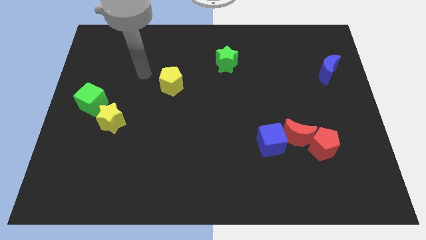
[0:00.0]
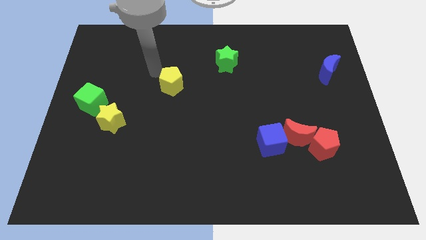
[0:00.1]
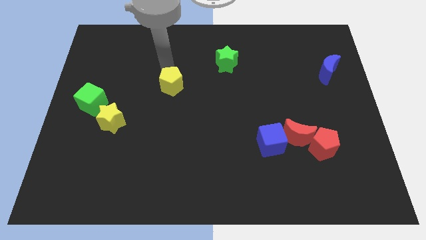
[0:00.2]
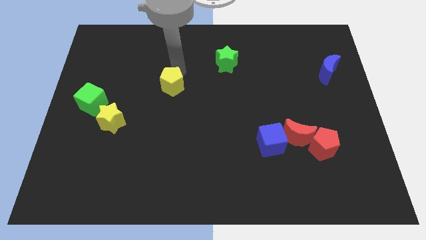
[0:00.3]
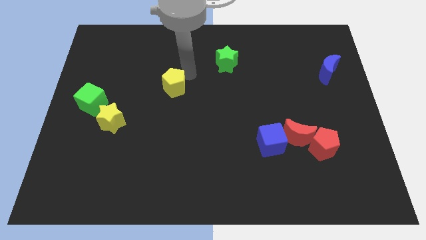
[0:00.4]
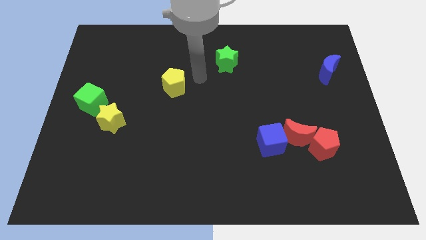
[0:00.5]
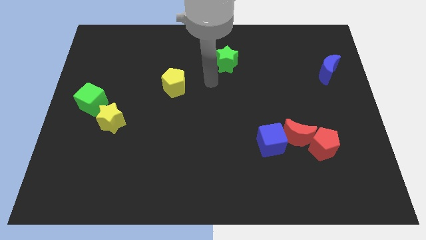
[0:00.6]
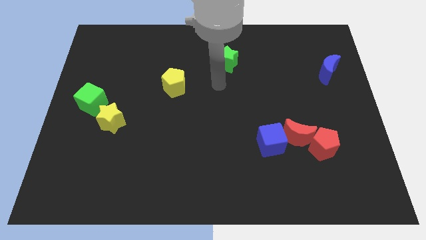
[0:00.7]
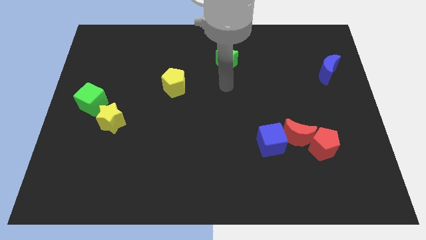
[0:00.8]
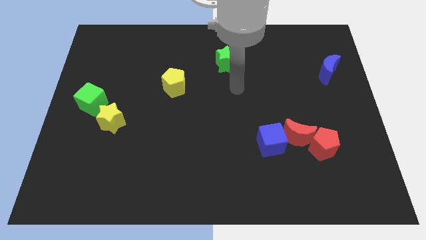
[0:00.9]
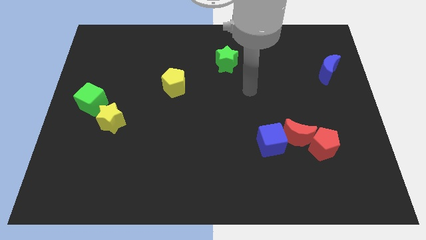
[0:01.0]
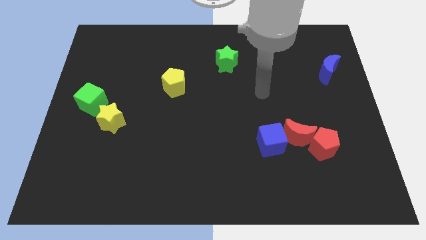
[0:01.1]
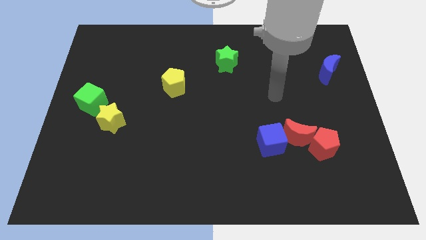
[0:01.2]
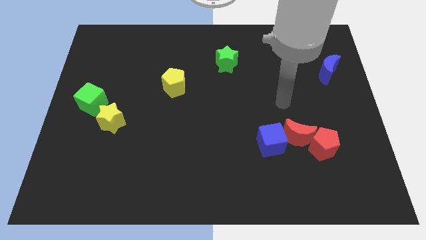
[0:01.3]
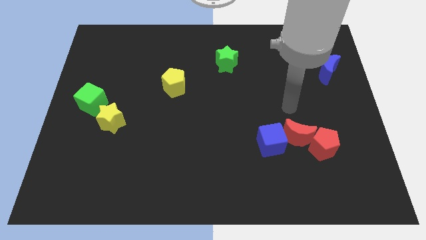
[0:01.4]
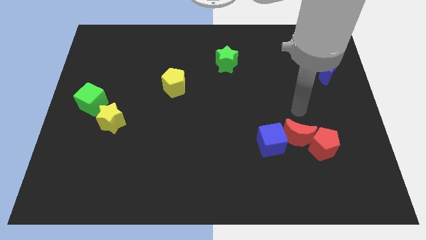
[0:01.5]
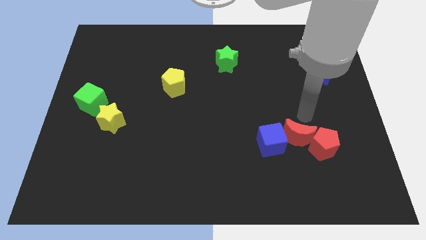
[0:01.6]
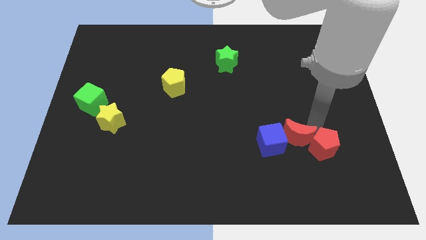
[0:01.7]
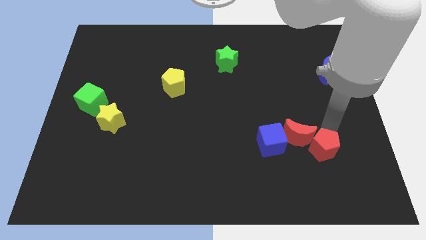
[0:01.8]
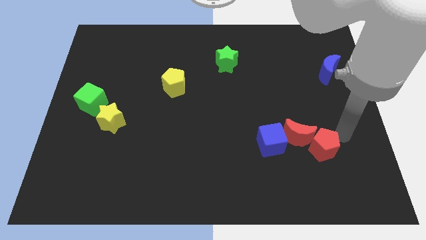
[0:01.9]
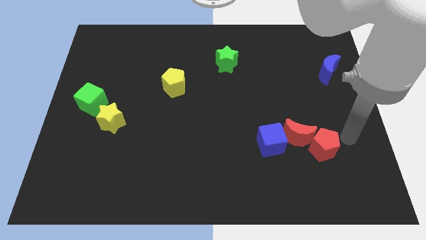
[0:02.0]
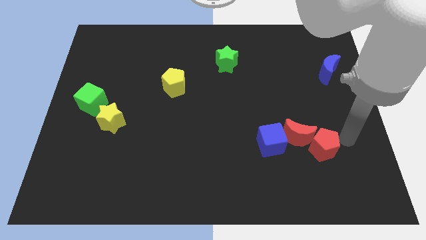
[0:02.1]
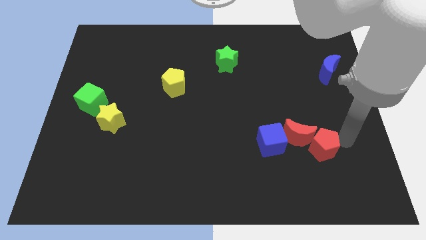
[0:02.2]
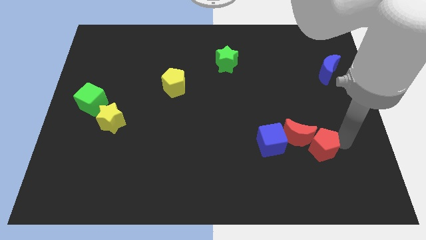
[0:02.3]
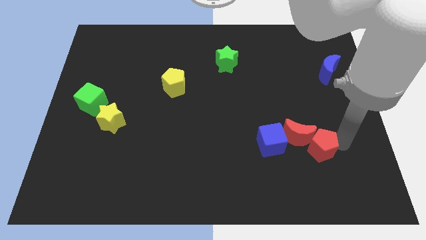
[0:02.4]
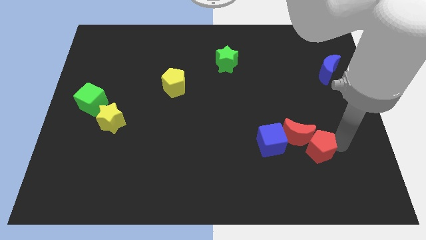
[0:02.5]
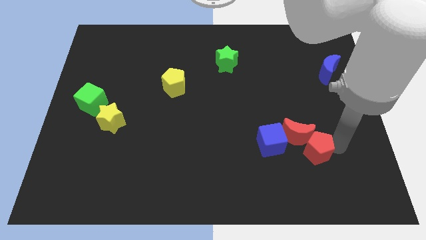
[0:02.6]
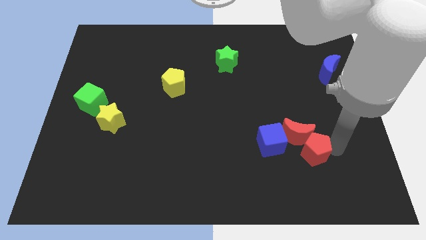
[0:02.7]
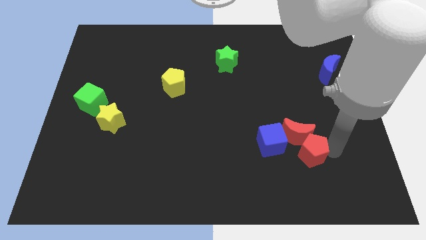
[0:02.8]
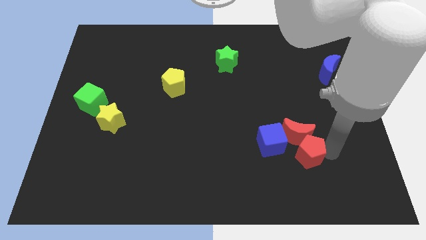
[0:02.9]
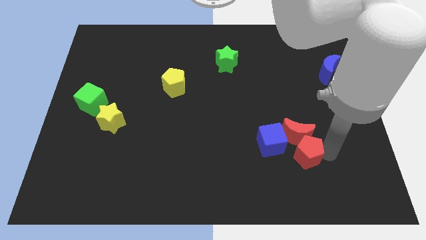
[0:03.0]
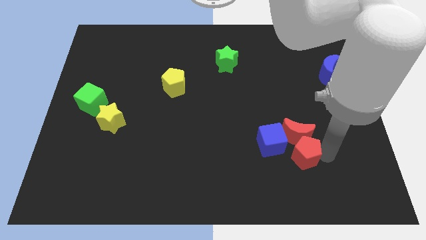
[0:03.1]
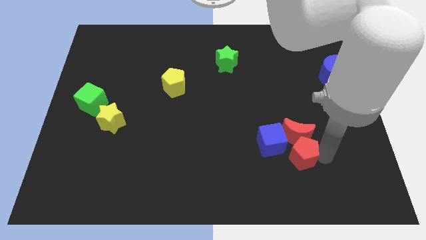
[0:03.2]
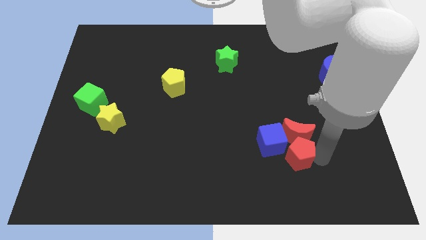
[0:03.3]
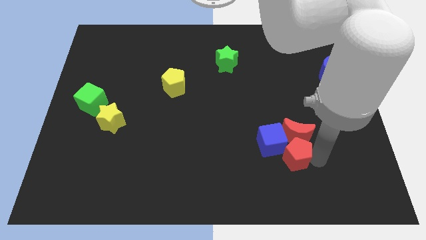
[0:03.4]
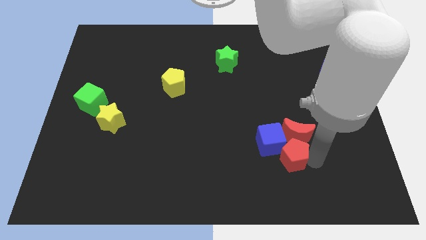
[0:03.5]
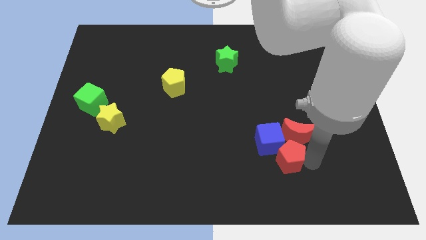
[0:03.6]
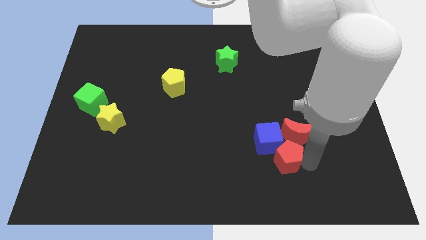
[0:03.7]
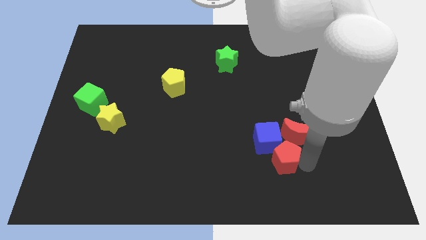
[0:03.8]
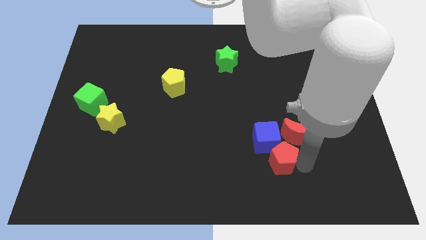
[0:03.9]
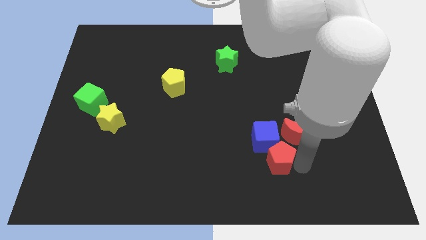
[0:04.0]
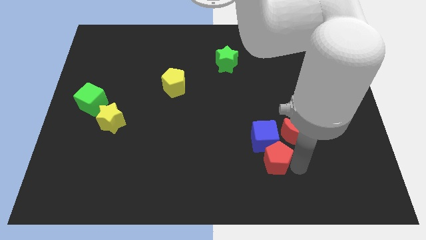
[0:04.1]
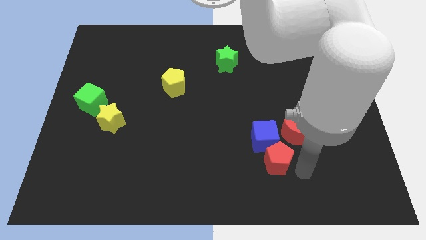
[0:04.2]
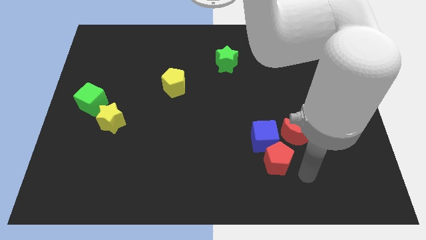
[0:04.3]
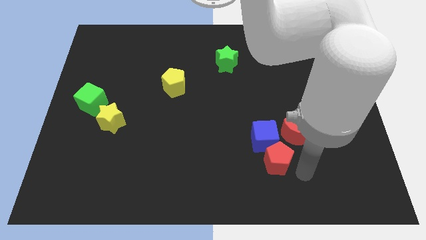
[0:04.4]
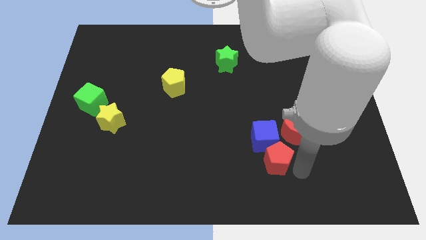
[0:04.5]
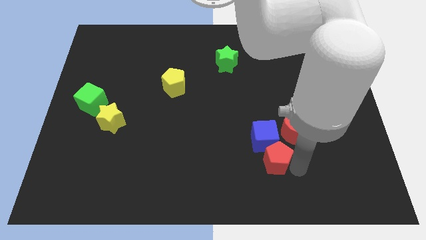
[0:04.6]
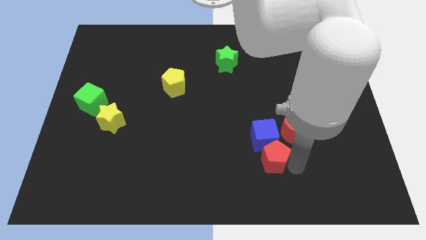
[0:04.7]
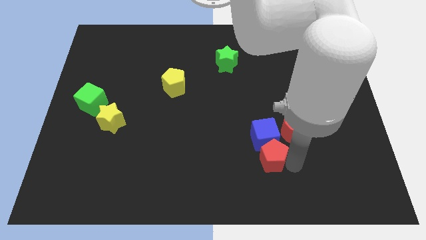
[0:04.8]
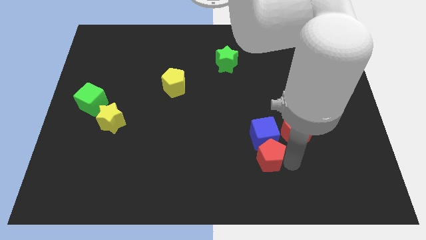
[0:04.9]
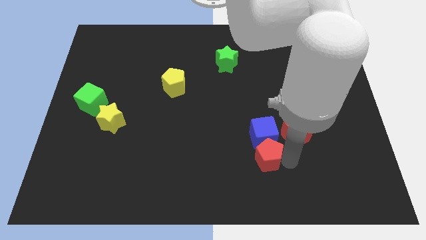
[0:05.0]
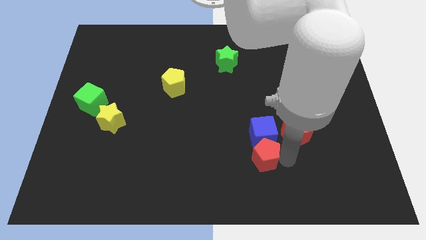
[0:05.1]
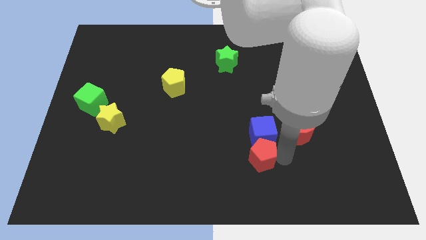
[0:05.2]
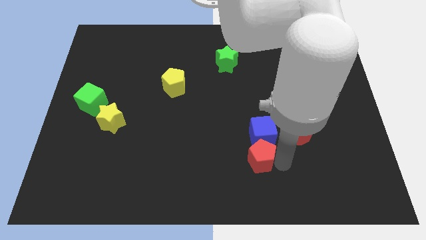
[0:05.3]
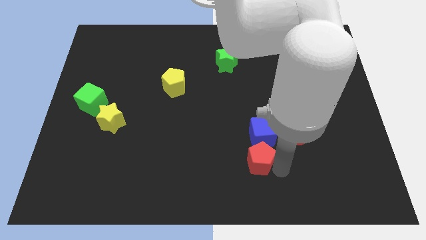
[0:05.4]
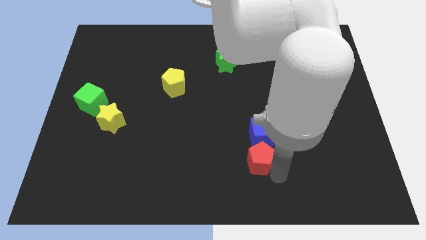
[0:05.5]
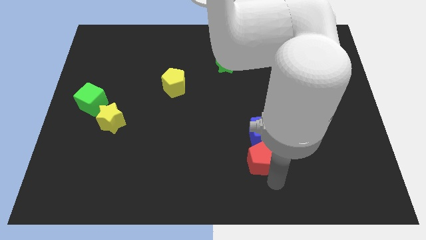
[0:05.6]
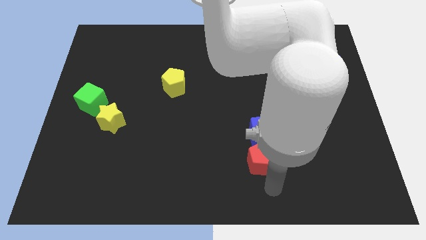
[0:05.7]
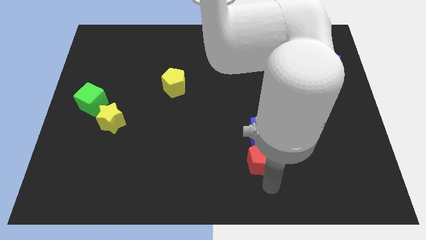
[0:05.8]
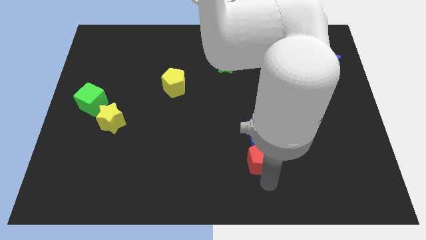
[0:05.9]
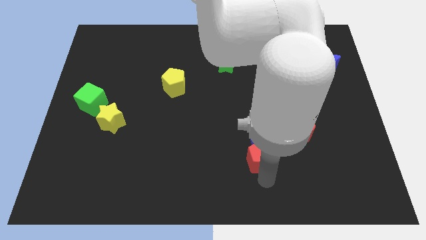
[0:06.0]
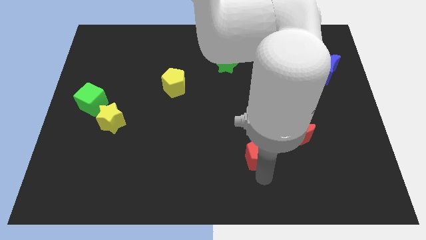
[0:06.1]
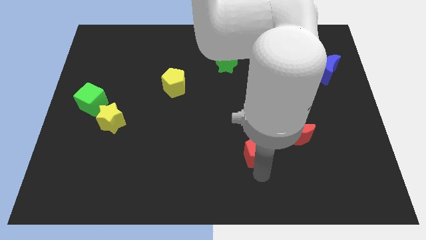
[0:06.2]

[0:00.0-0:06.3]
slide the red pentagon left of the red moon

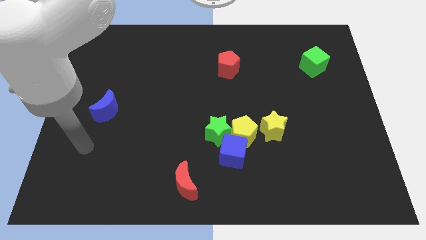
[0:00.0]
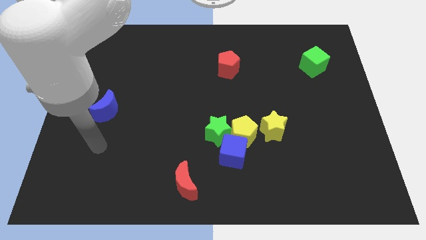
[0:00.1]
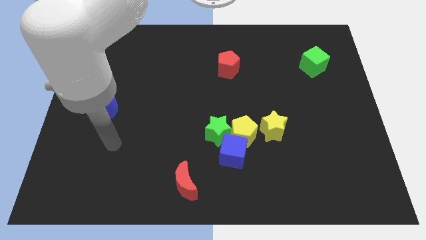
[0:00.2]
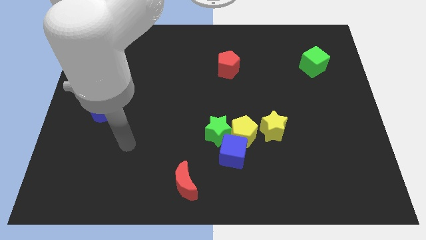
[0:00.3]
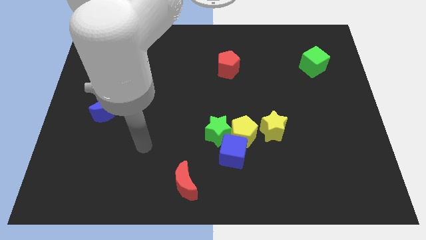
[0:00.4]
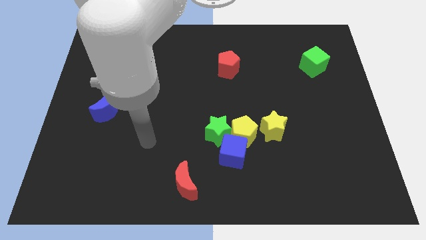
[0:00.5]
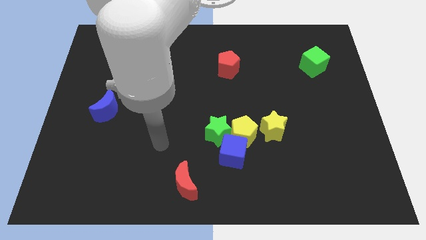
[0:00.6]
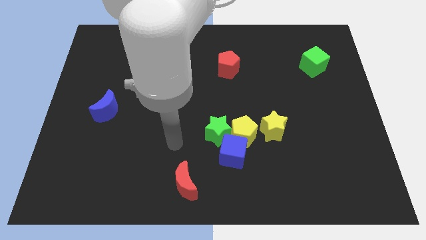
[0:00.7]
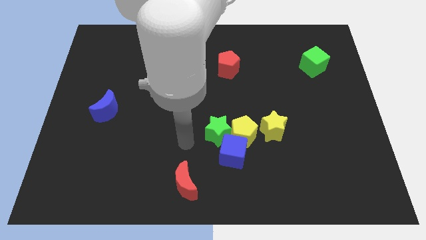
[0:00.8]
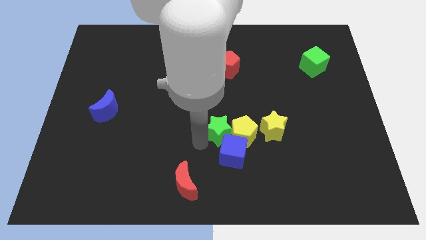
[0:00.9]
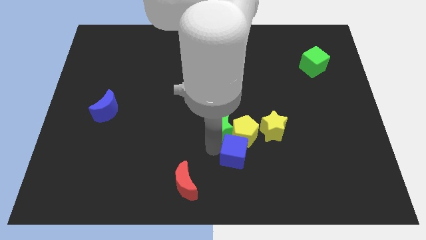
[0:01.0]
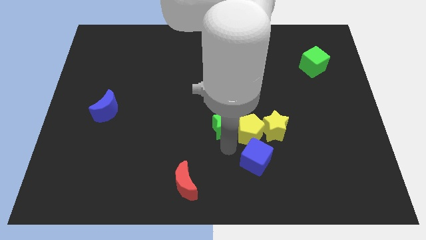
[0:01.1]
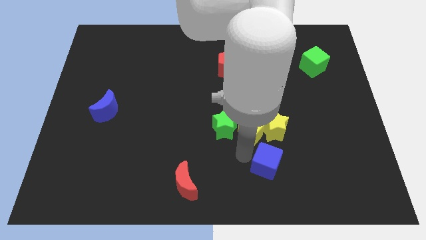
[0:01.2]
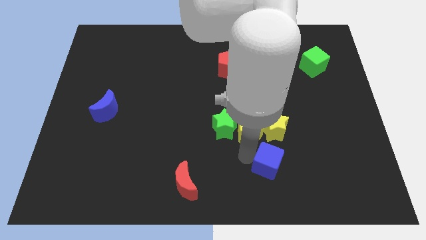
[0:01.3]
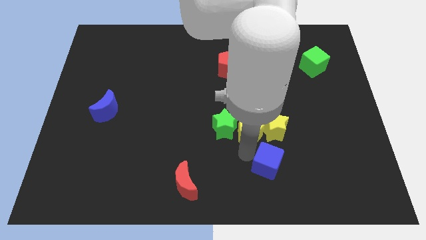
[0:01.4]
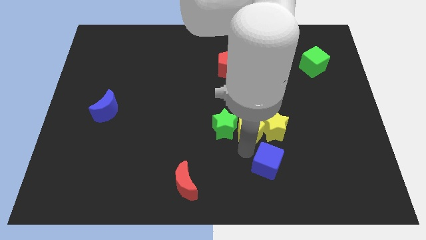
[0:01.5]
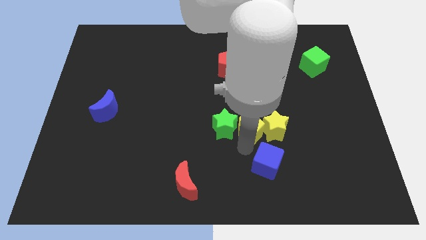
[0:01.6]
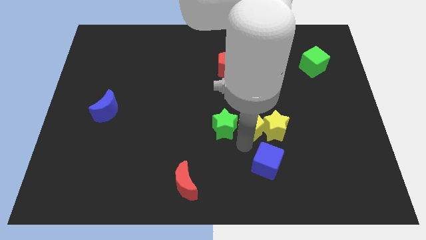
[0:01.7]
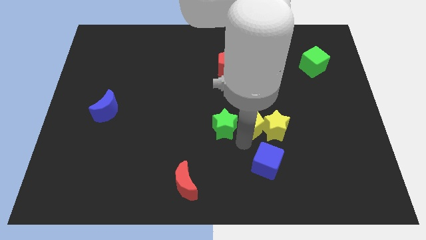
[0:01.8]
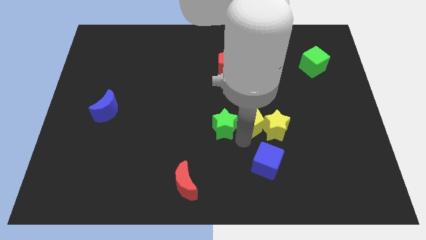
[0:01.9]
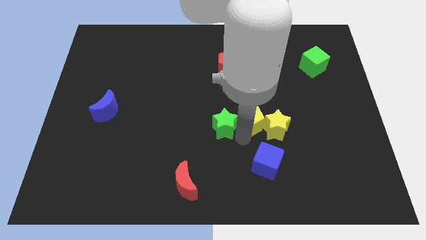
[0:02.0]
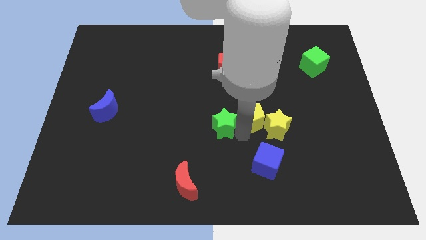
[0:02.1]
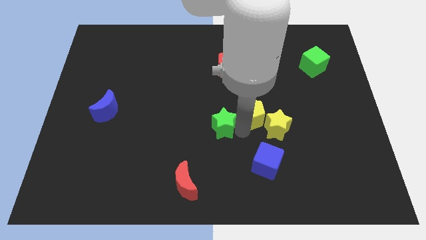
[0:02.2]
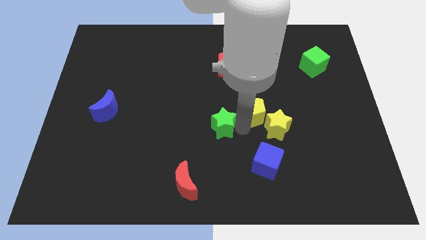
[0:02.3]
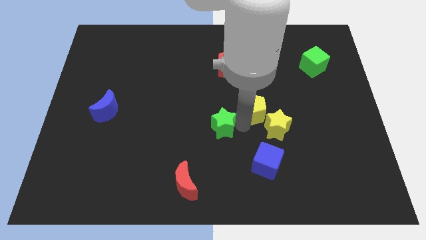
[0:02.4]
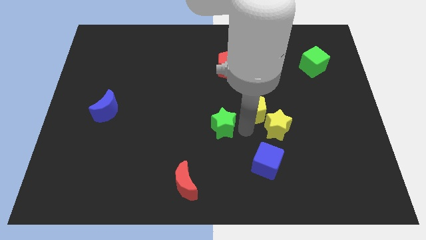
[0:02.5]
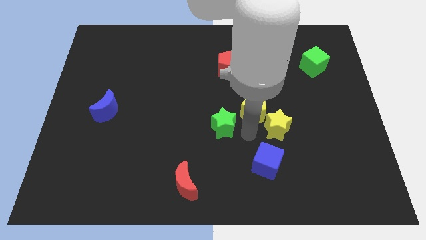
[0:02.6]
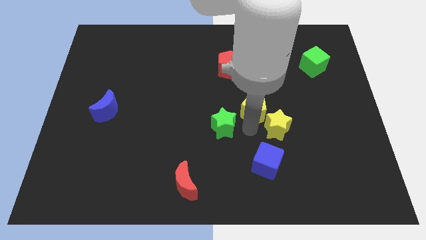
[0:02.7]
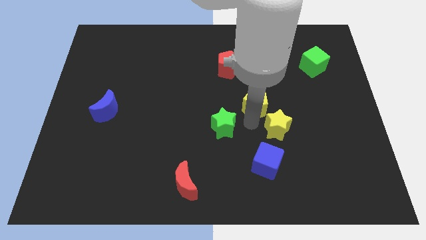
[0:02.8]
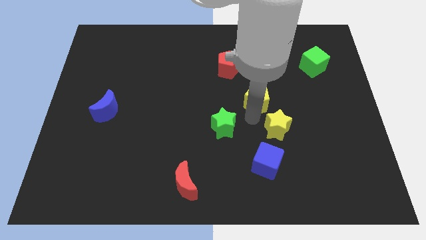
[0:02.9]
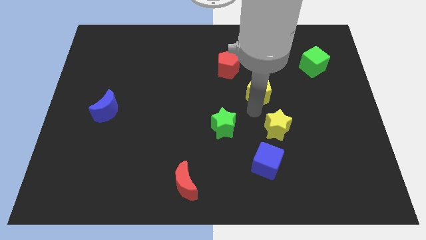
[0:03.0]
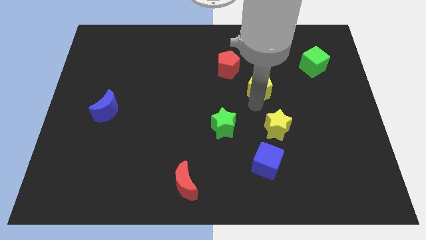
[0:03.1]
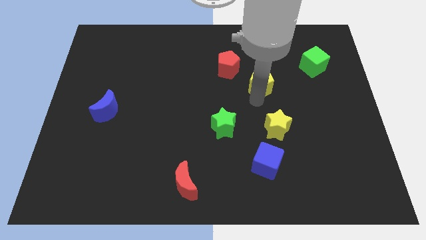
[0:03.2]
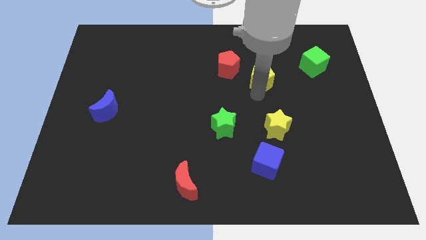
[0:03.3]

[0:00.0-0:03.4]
move the yellow pentagon to the right side of the red pentagon
